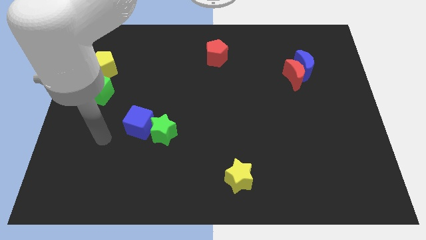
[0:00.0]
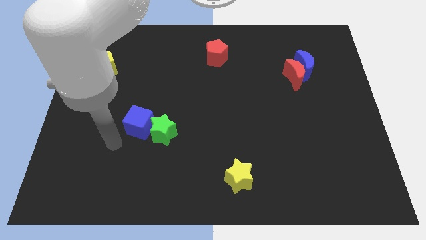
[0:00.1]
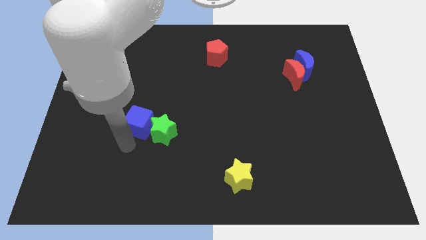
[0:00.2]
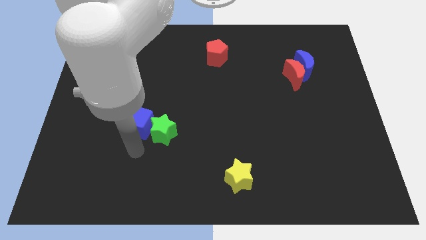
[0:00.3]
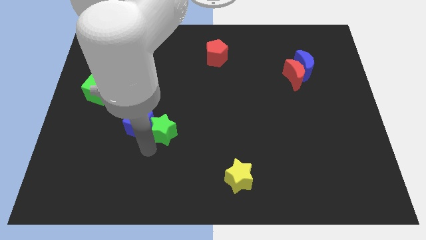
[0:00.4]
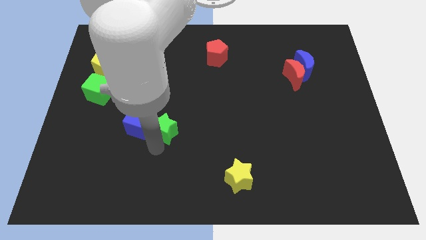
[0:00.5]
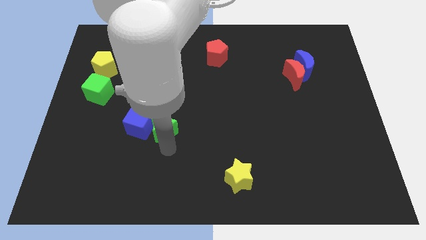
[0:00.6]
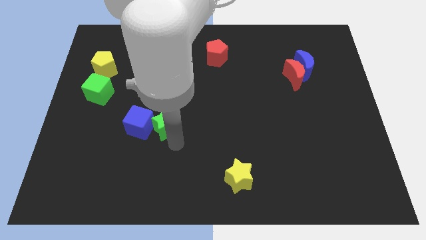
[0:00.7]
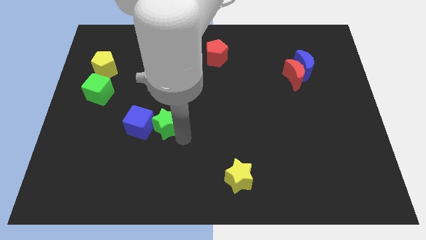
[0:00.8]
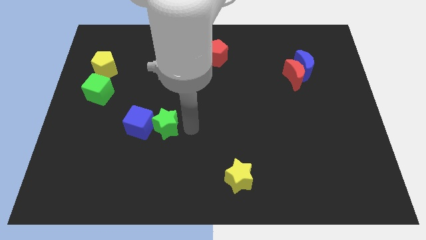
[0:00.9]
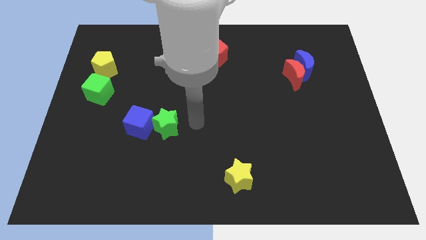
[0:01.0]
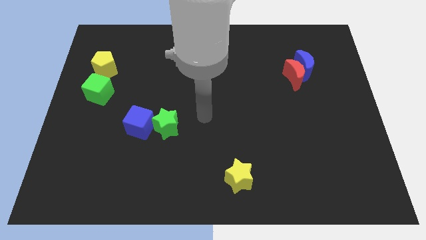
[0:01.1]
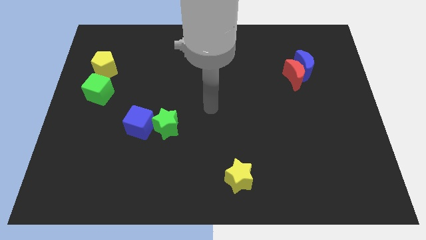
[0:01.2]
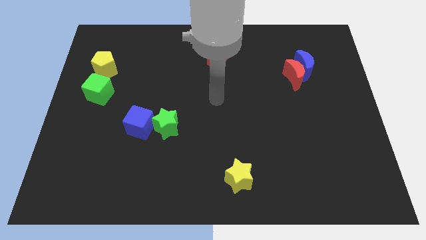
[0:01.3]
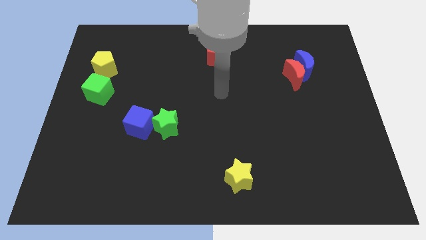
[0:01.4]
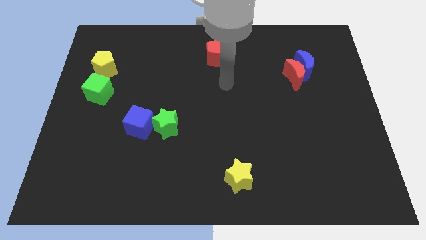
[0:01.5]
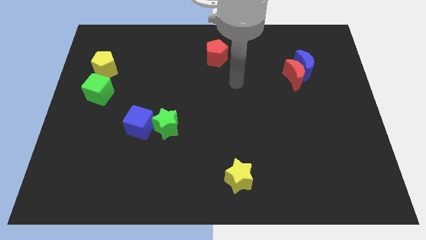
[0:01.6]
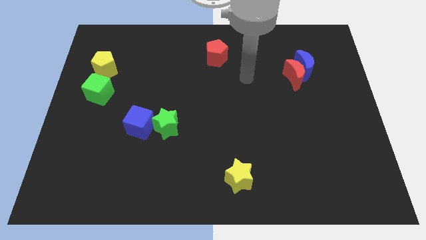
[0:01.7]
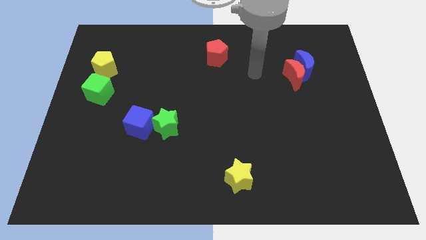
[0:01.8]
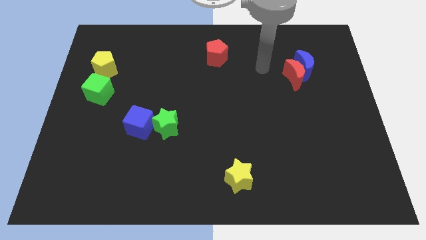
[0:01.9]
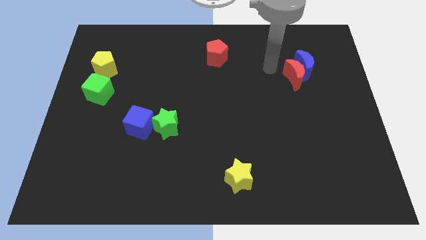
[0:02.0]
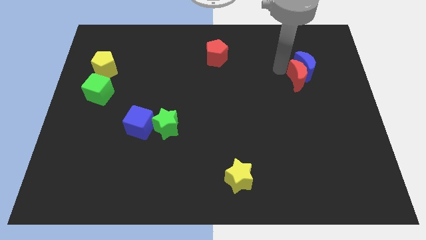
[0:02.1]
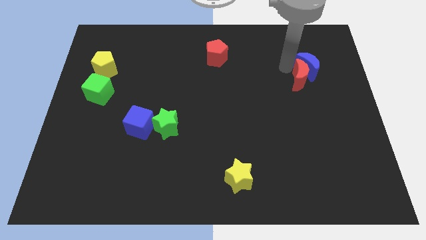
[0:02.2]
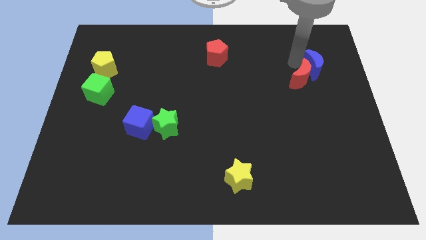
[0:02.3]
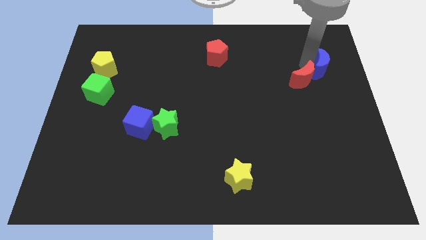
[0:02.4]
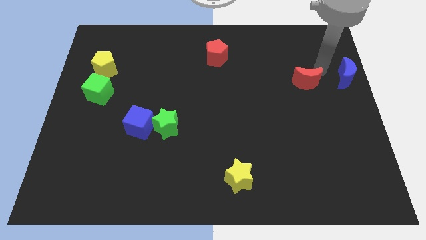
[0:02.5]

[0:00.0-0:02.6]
separate the red moon from the blue moon

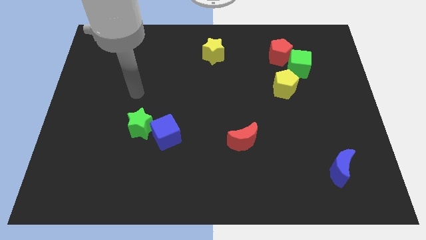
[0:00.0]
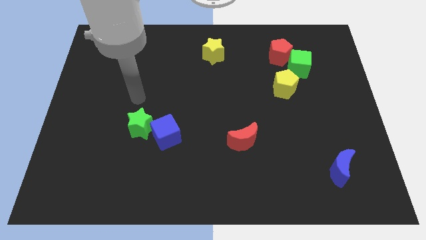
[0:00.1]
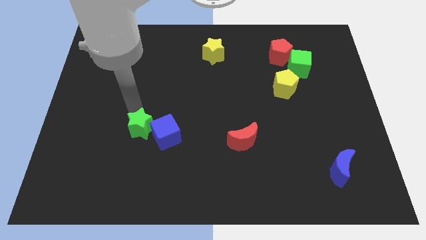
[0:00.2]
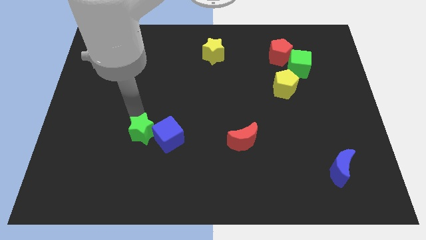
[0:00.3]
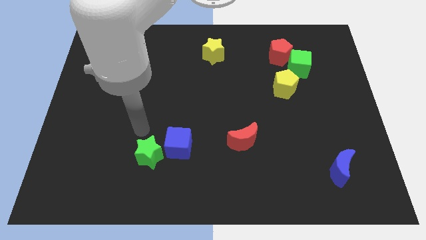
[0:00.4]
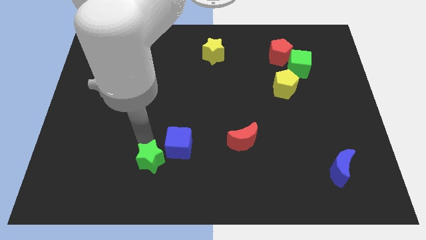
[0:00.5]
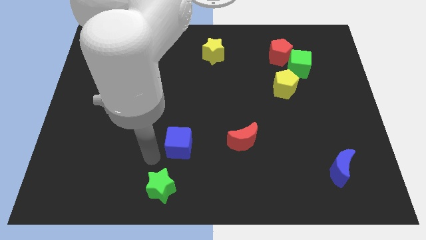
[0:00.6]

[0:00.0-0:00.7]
pull the blue cube apart from the green star

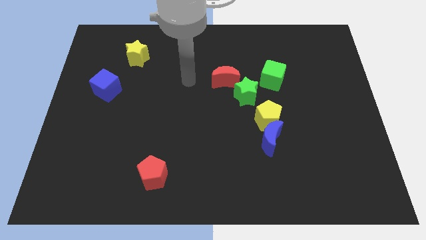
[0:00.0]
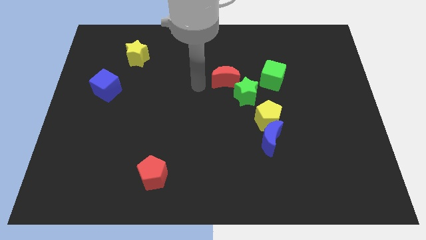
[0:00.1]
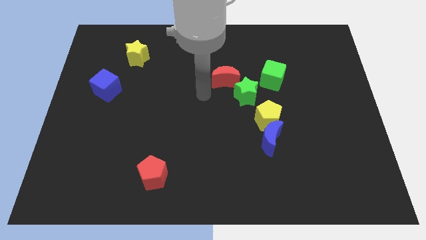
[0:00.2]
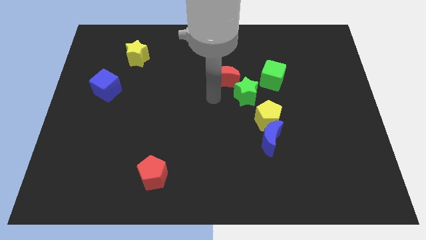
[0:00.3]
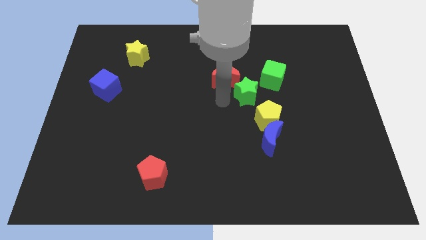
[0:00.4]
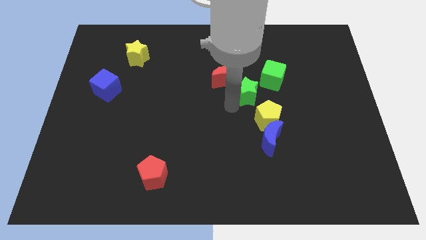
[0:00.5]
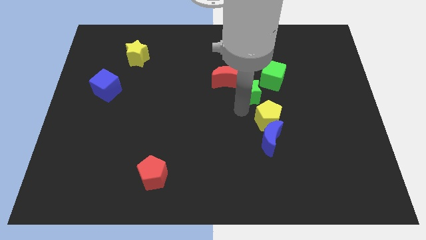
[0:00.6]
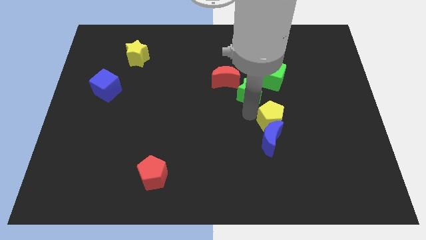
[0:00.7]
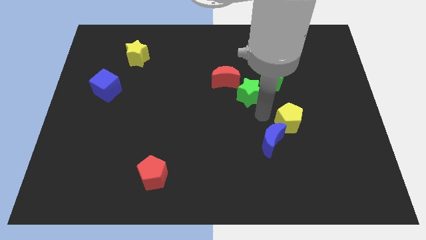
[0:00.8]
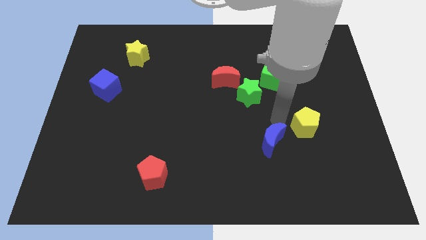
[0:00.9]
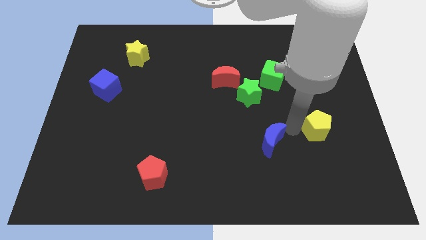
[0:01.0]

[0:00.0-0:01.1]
separate the blue moon from the yellow pentagon

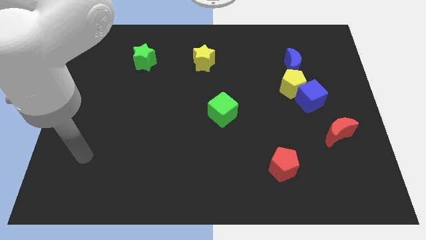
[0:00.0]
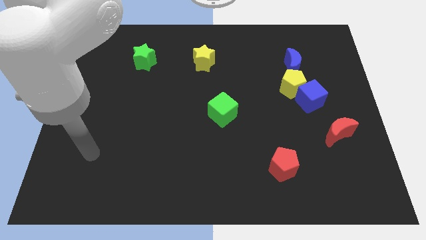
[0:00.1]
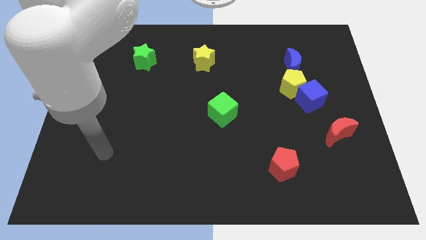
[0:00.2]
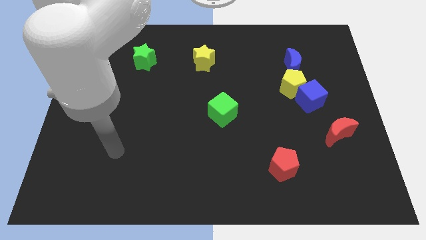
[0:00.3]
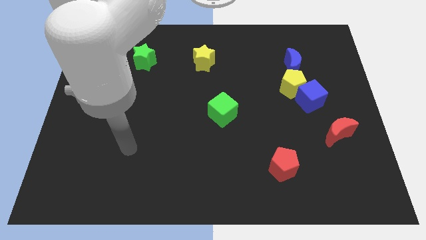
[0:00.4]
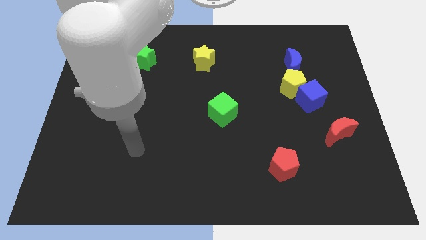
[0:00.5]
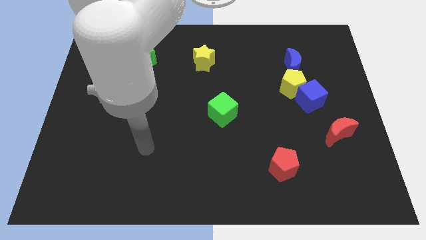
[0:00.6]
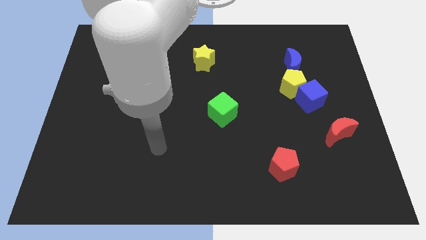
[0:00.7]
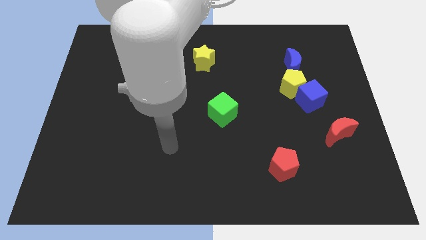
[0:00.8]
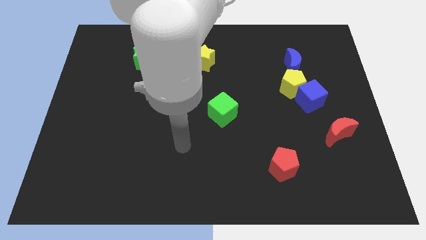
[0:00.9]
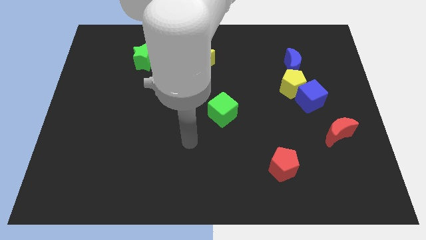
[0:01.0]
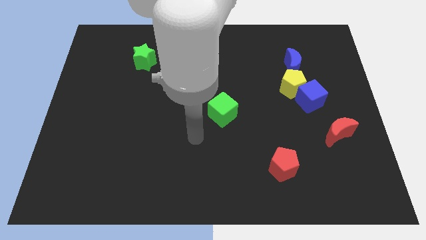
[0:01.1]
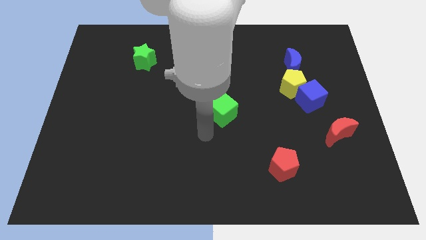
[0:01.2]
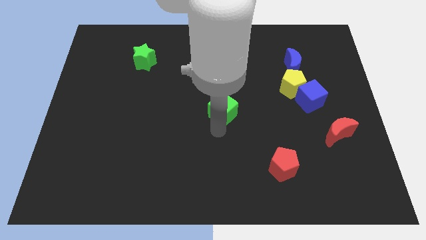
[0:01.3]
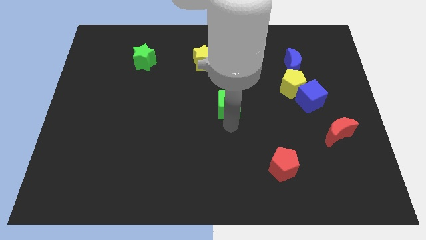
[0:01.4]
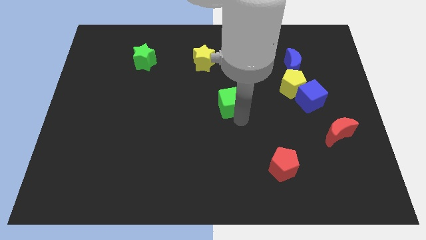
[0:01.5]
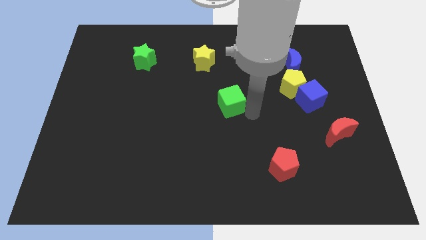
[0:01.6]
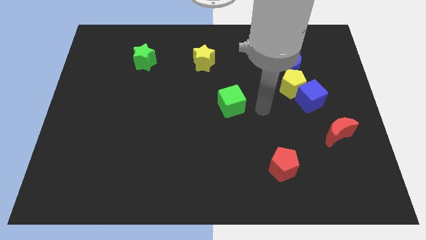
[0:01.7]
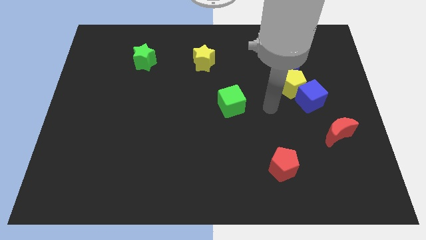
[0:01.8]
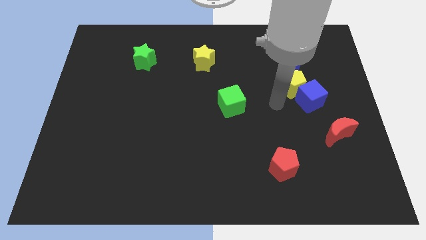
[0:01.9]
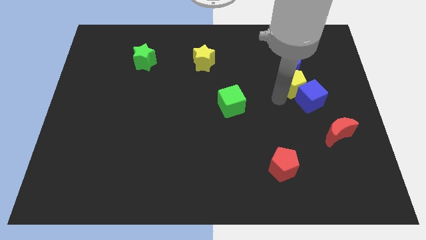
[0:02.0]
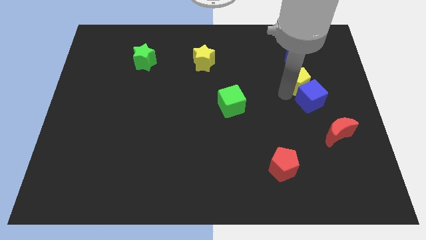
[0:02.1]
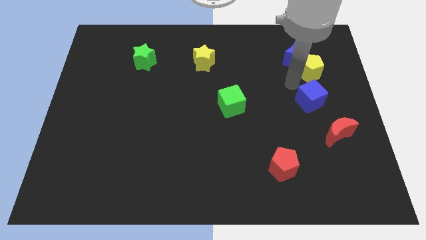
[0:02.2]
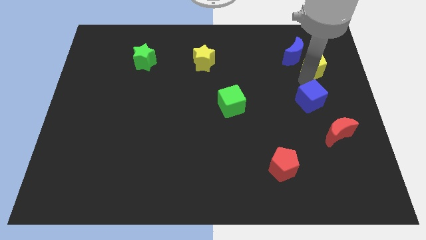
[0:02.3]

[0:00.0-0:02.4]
separate the blue cube from the yellow pentagon

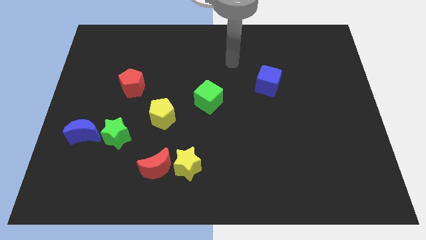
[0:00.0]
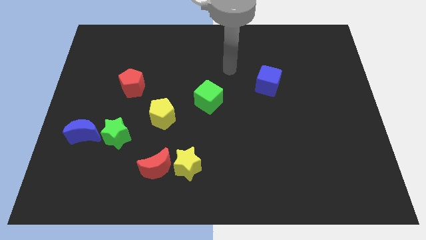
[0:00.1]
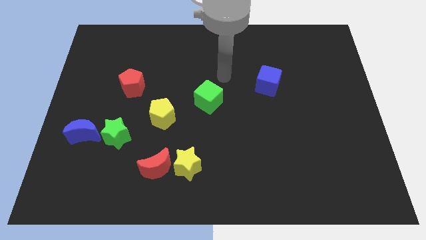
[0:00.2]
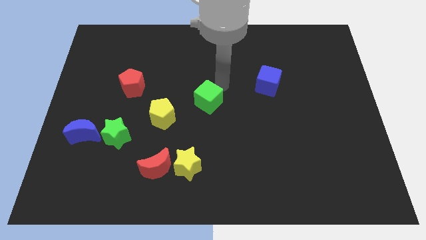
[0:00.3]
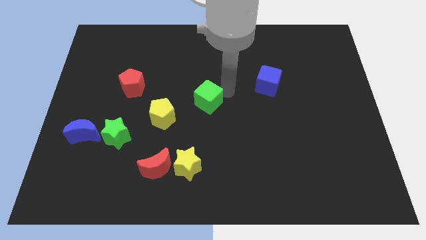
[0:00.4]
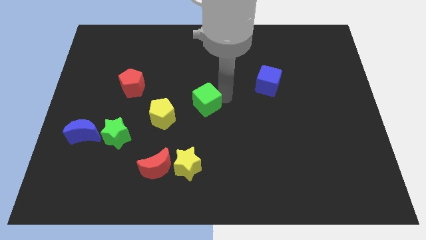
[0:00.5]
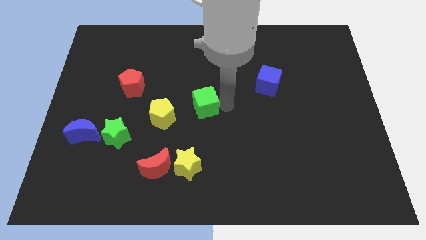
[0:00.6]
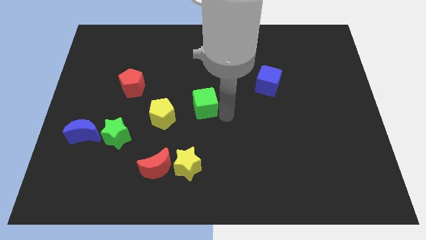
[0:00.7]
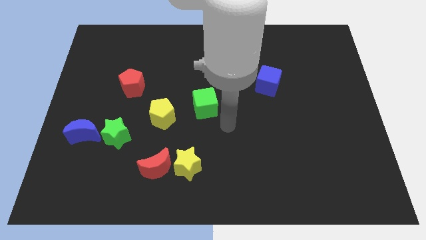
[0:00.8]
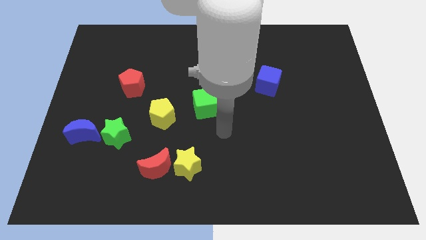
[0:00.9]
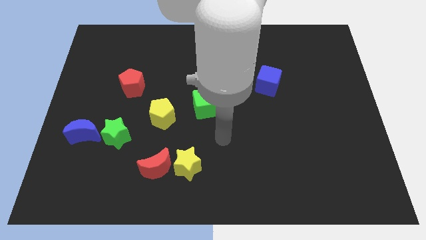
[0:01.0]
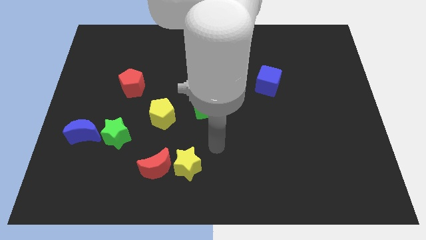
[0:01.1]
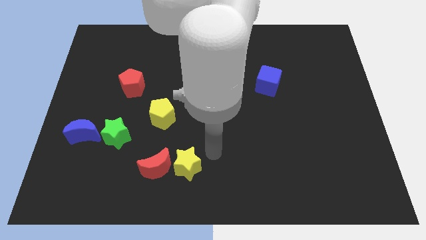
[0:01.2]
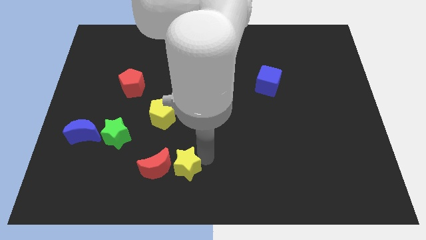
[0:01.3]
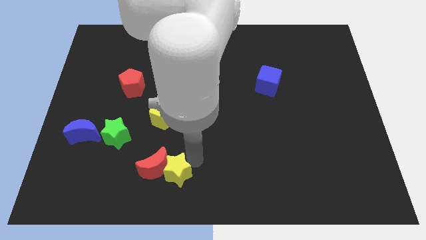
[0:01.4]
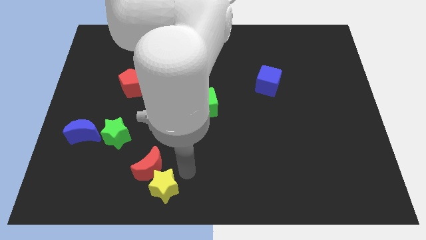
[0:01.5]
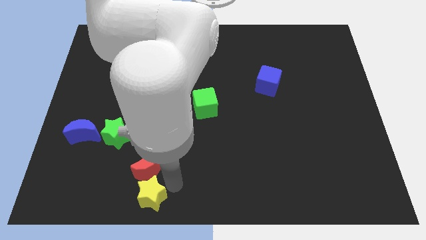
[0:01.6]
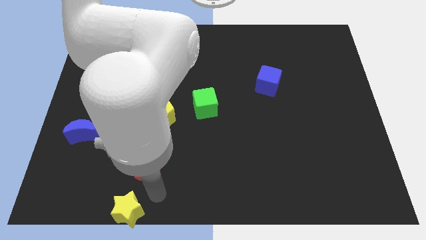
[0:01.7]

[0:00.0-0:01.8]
pull the red moon apart from the yellow star

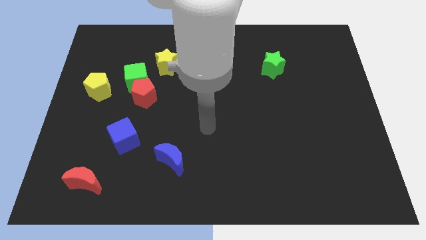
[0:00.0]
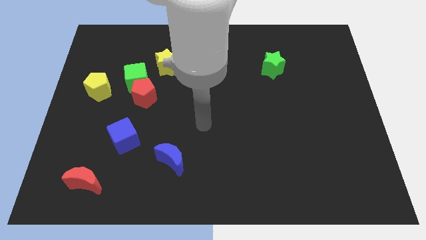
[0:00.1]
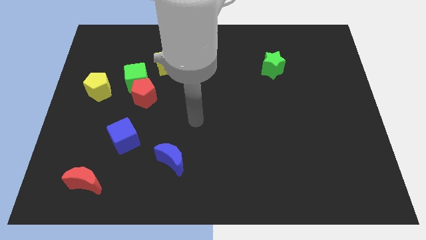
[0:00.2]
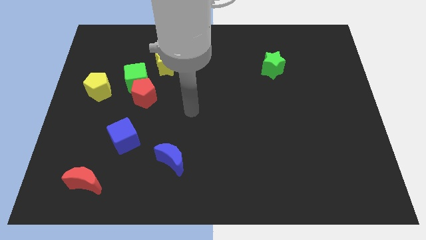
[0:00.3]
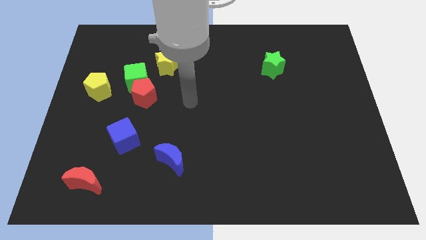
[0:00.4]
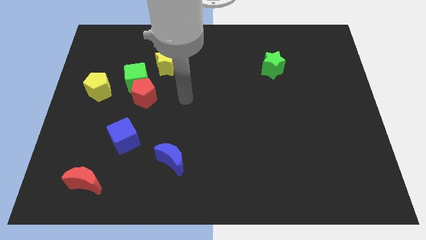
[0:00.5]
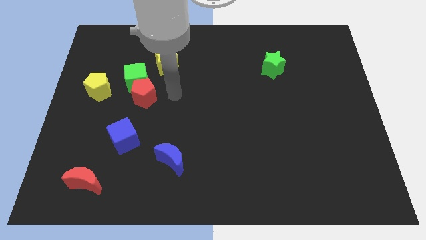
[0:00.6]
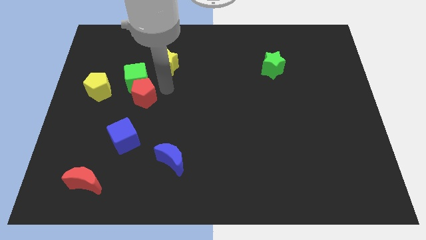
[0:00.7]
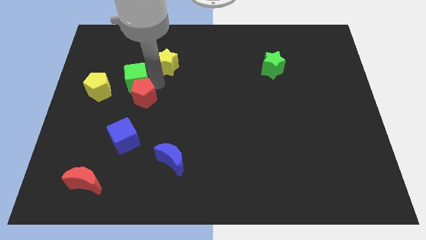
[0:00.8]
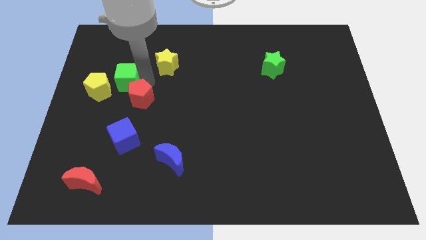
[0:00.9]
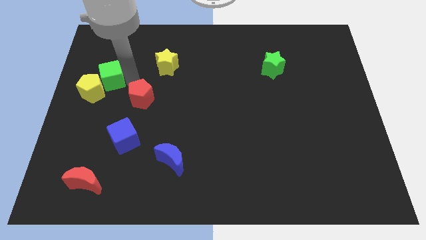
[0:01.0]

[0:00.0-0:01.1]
move the red pentagon away from the green cube
